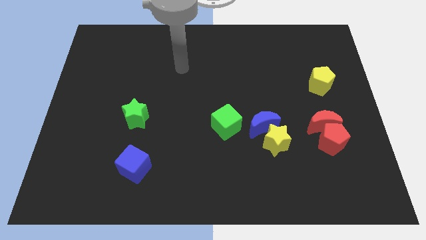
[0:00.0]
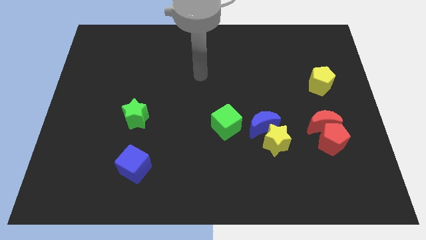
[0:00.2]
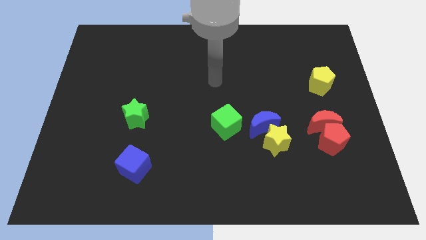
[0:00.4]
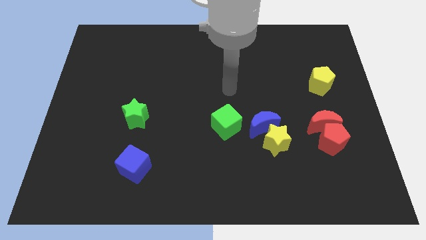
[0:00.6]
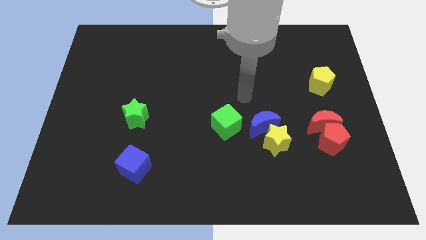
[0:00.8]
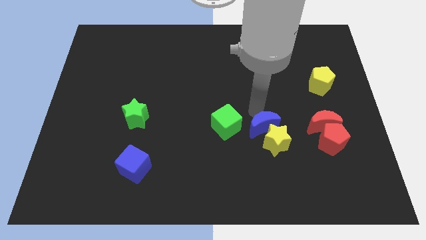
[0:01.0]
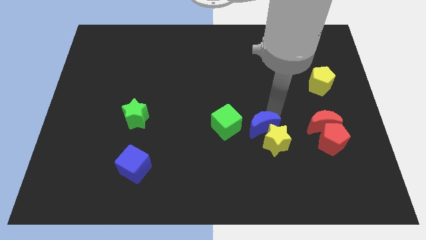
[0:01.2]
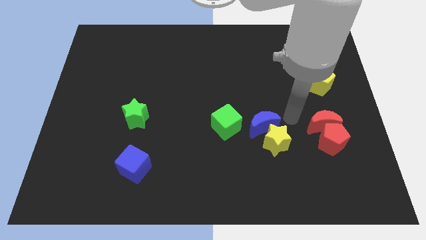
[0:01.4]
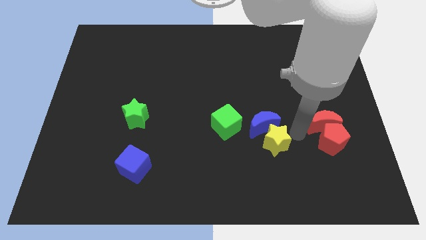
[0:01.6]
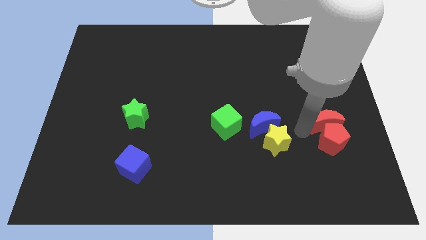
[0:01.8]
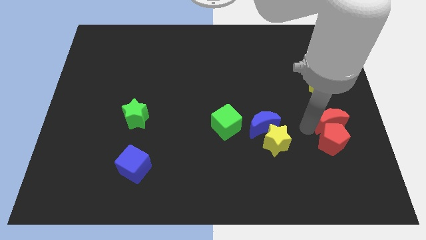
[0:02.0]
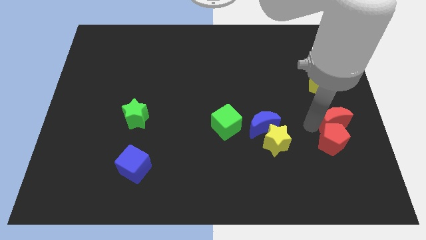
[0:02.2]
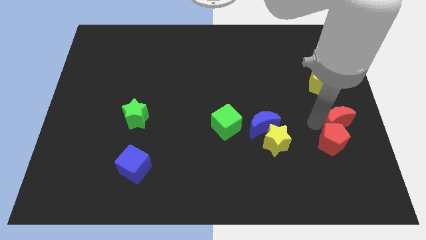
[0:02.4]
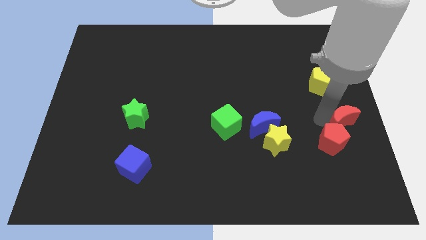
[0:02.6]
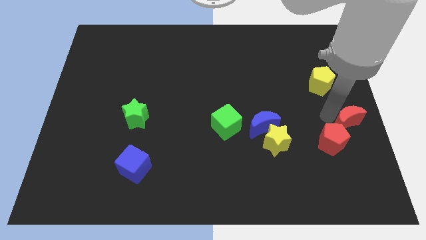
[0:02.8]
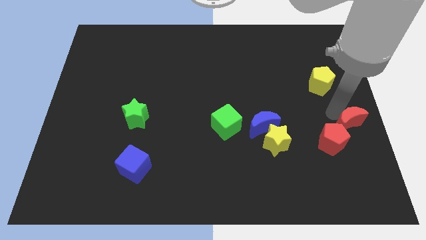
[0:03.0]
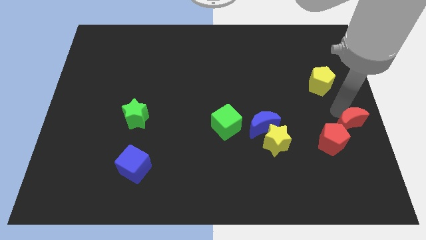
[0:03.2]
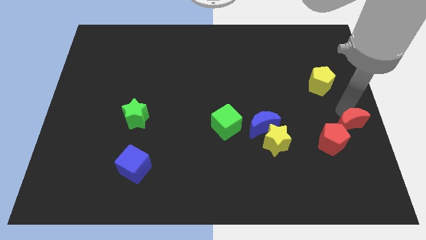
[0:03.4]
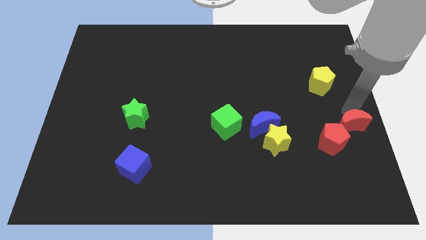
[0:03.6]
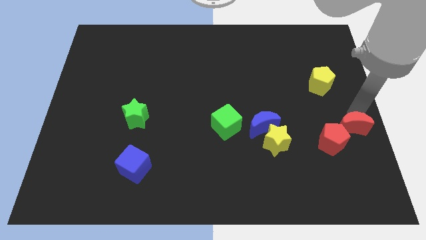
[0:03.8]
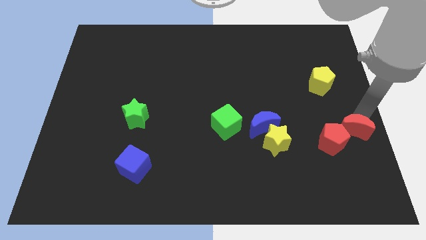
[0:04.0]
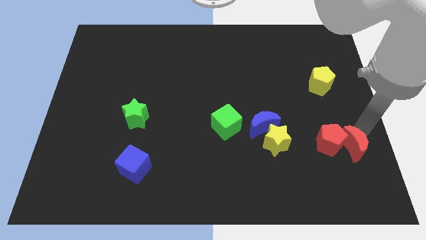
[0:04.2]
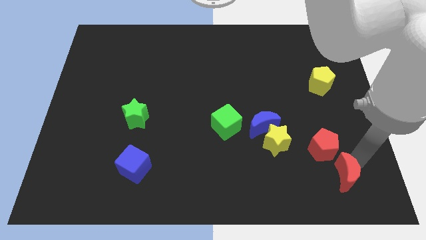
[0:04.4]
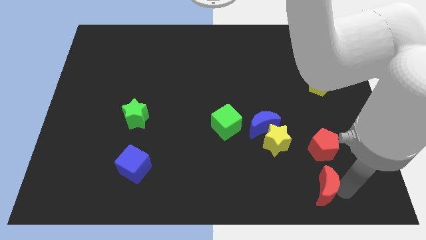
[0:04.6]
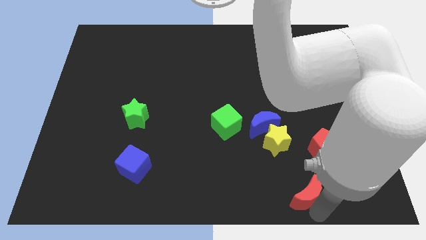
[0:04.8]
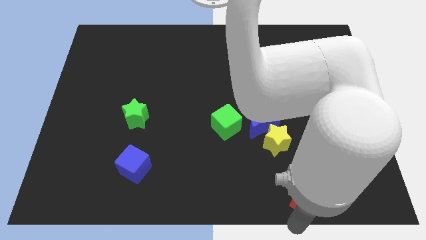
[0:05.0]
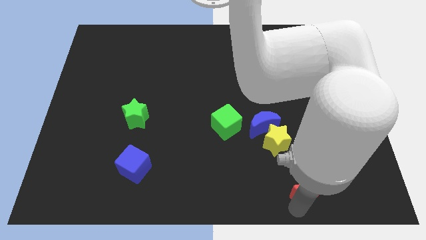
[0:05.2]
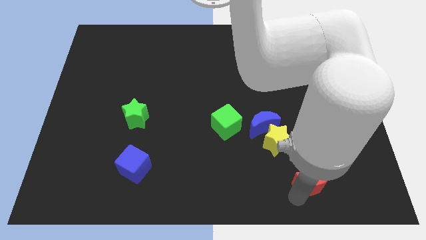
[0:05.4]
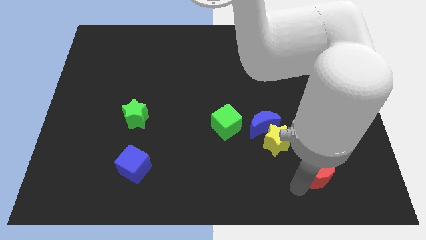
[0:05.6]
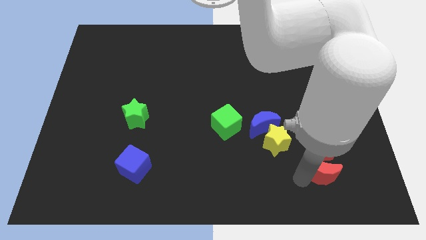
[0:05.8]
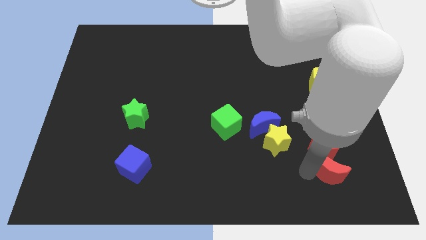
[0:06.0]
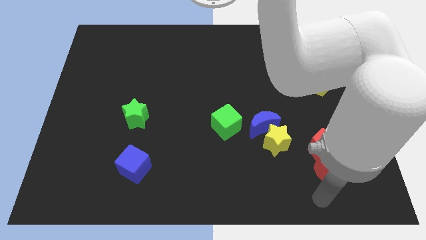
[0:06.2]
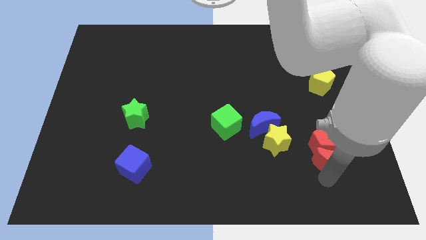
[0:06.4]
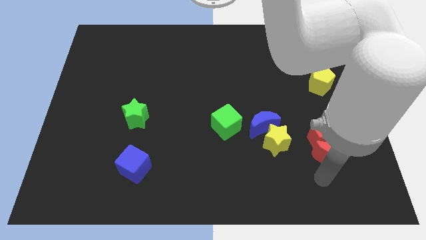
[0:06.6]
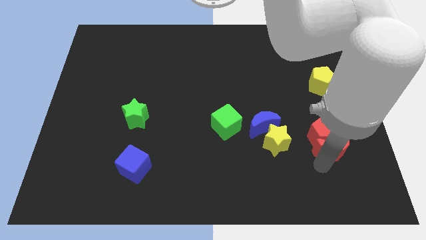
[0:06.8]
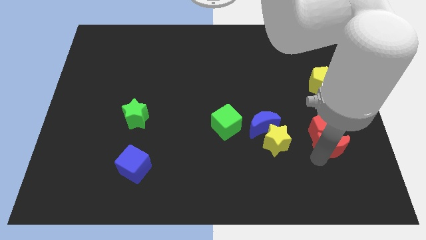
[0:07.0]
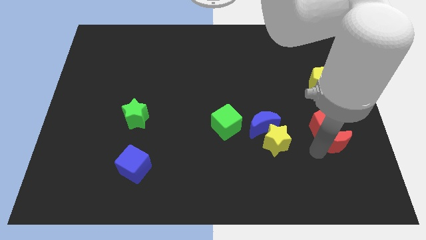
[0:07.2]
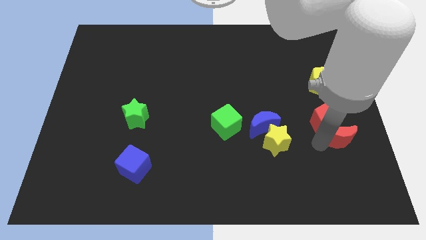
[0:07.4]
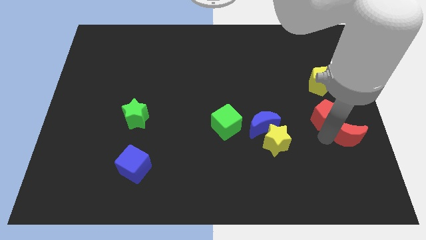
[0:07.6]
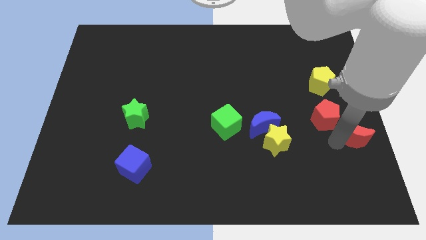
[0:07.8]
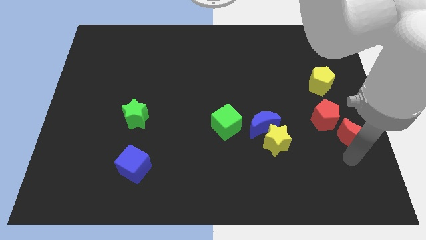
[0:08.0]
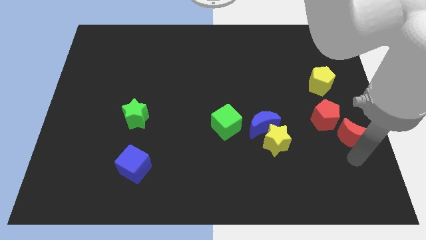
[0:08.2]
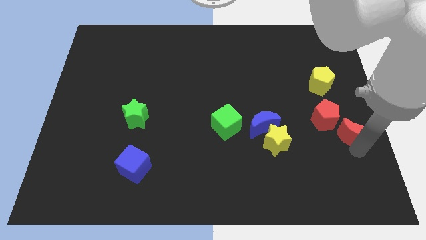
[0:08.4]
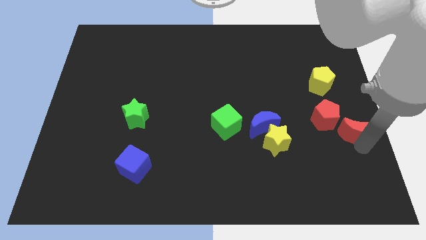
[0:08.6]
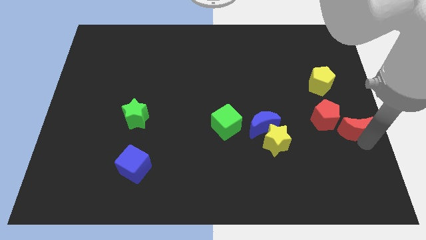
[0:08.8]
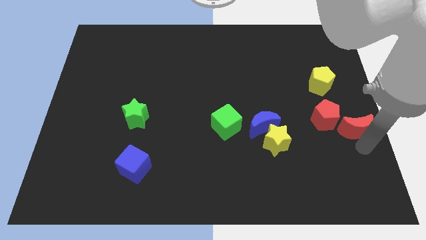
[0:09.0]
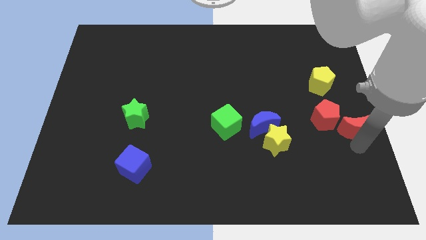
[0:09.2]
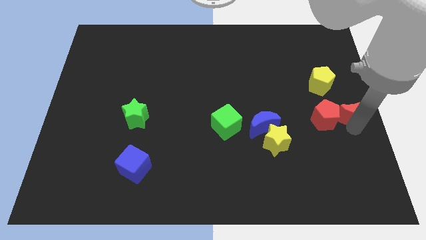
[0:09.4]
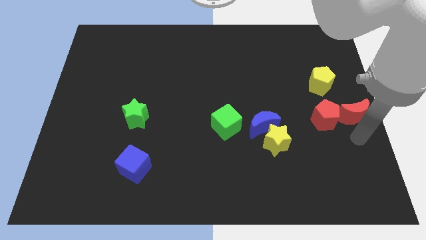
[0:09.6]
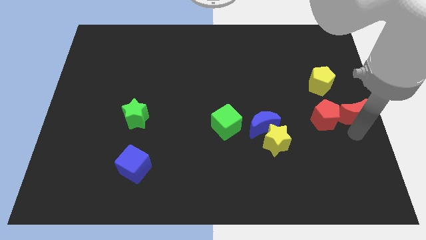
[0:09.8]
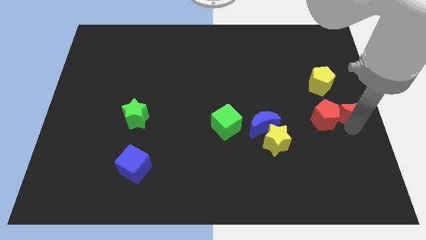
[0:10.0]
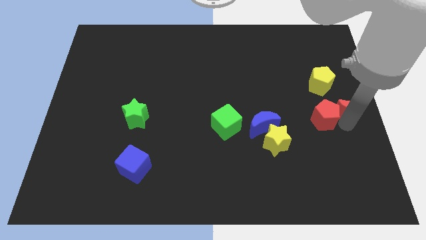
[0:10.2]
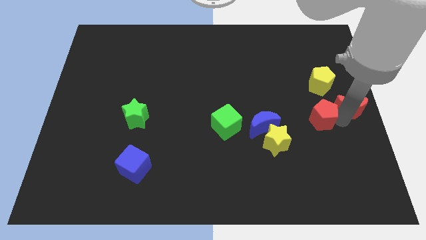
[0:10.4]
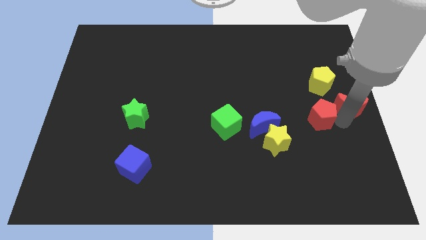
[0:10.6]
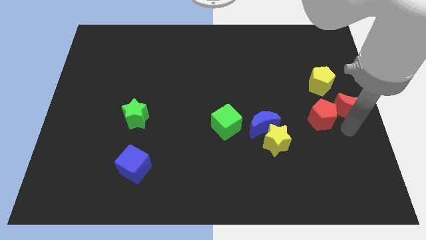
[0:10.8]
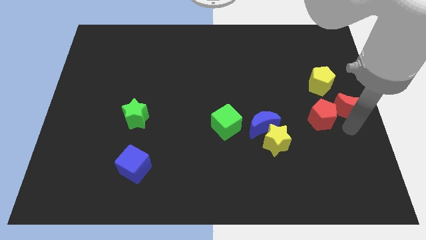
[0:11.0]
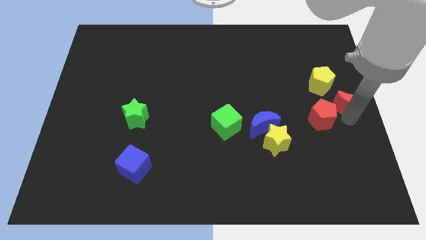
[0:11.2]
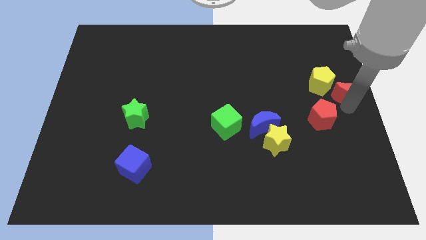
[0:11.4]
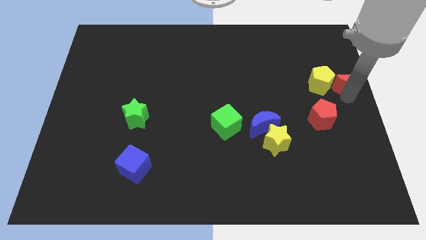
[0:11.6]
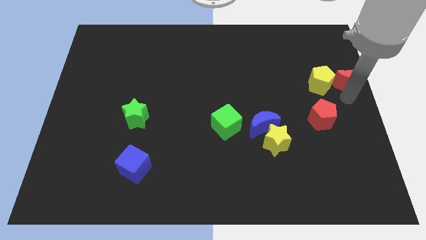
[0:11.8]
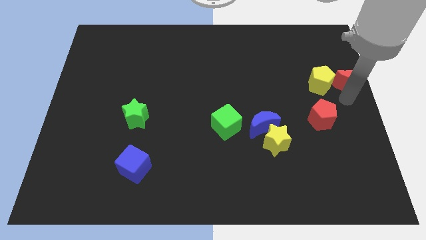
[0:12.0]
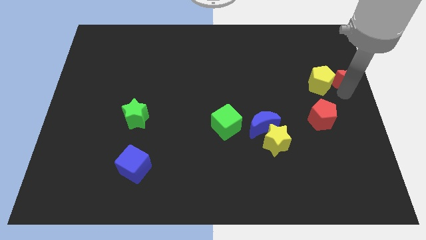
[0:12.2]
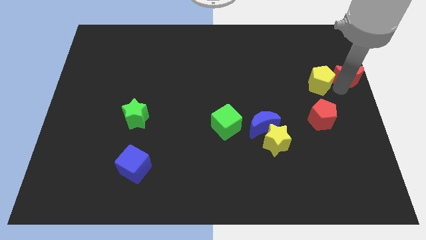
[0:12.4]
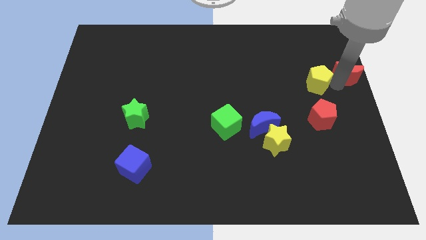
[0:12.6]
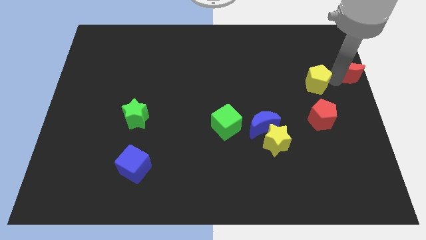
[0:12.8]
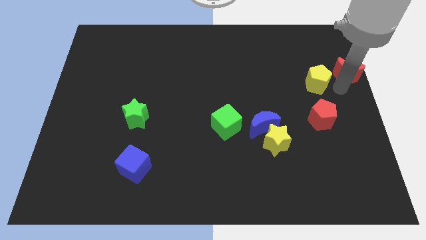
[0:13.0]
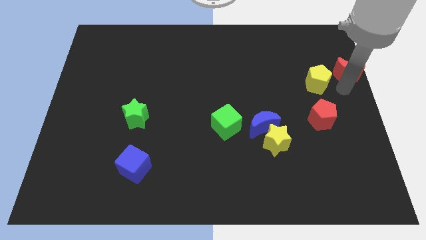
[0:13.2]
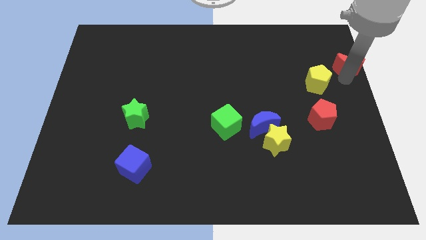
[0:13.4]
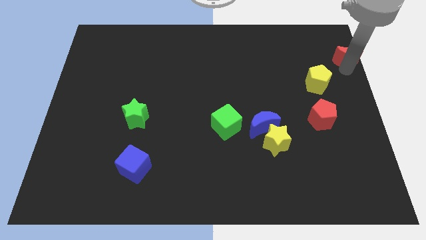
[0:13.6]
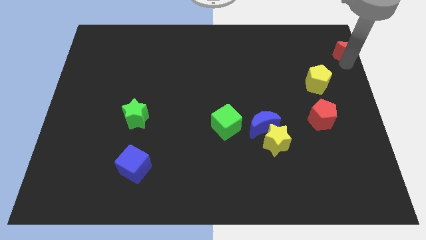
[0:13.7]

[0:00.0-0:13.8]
move the red moon to the top right of the board
